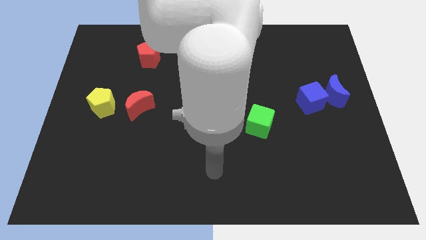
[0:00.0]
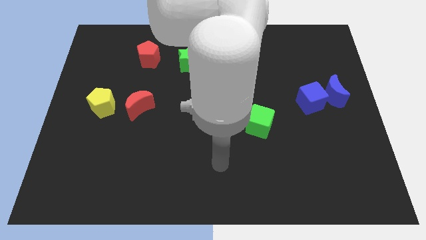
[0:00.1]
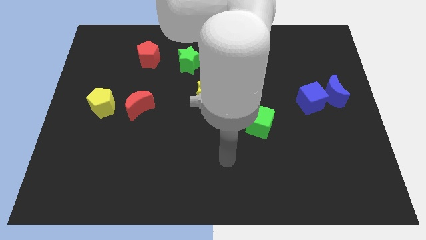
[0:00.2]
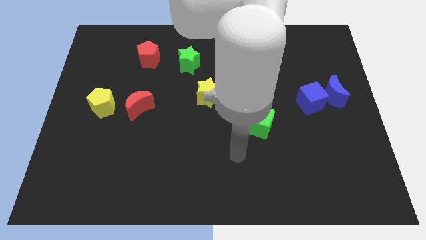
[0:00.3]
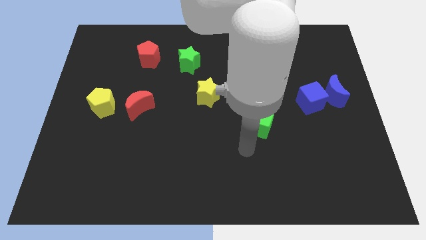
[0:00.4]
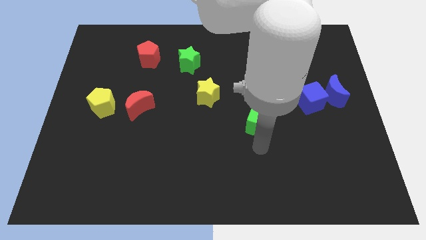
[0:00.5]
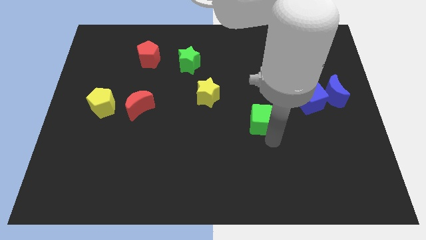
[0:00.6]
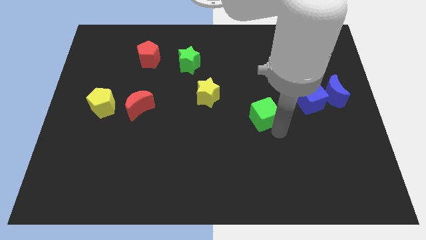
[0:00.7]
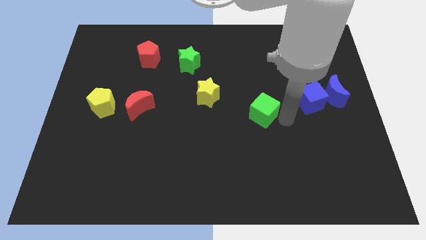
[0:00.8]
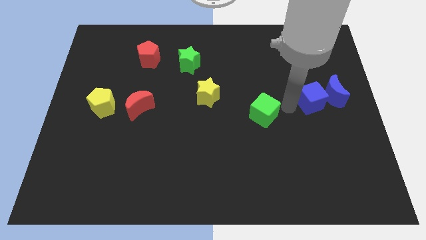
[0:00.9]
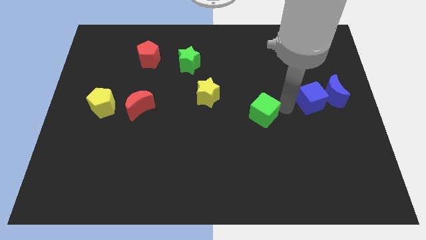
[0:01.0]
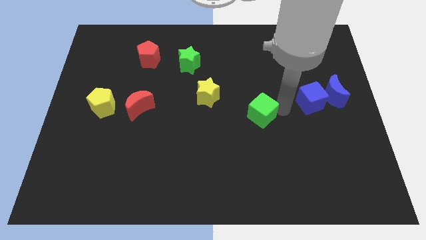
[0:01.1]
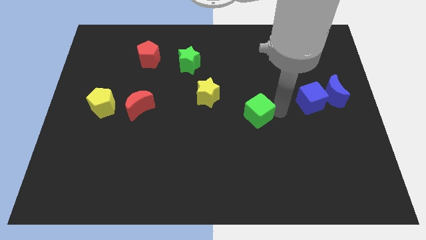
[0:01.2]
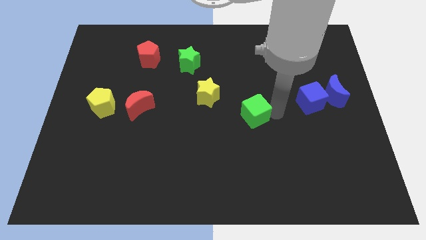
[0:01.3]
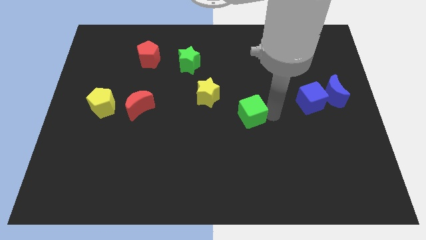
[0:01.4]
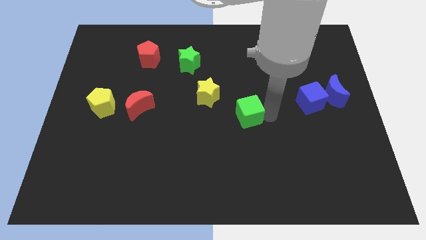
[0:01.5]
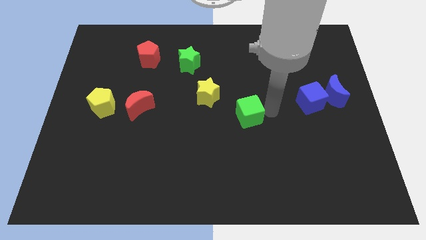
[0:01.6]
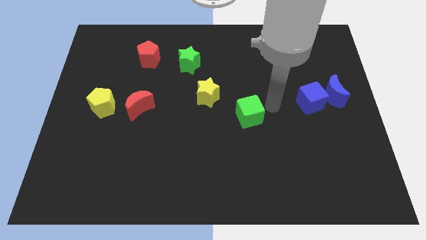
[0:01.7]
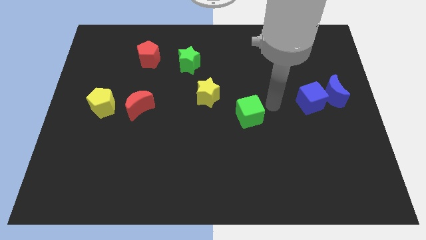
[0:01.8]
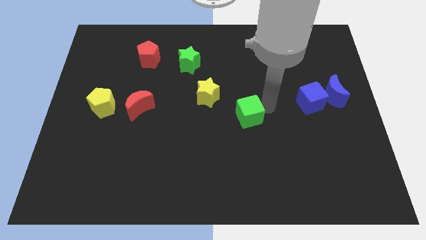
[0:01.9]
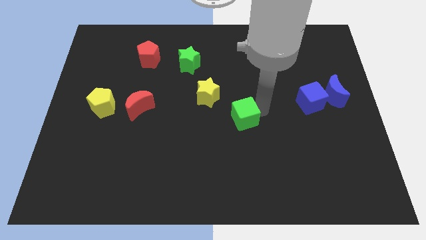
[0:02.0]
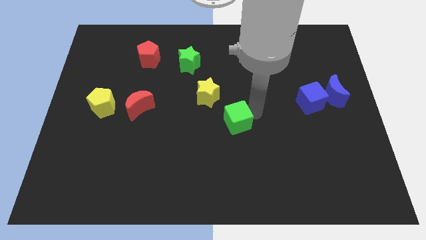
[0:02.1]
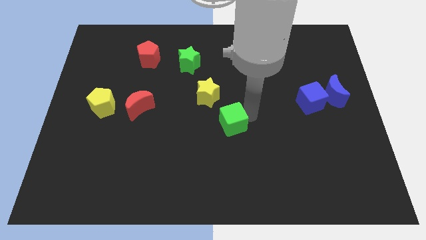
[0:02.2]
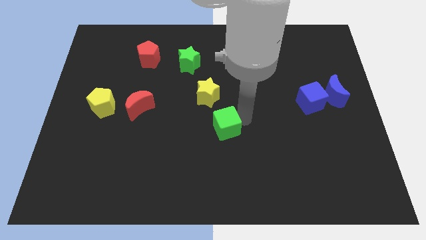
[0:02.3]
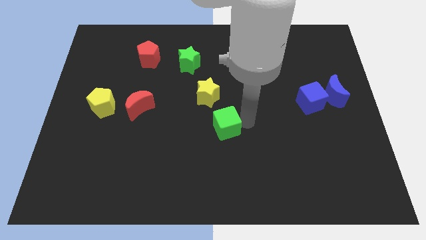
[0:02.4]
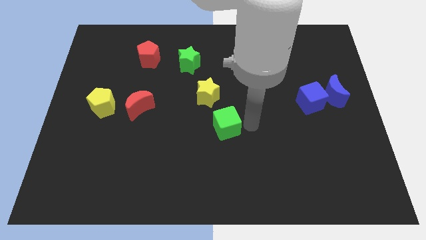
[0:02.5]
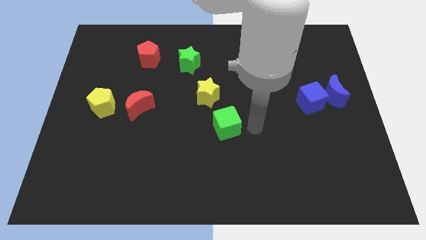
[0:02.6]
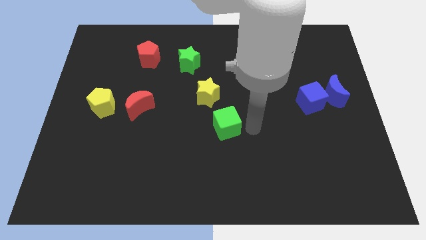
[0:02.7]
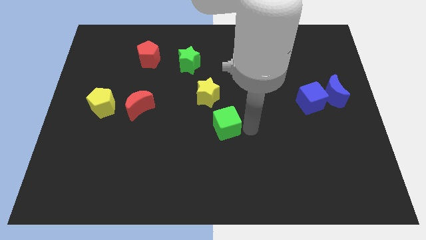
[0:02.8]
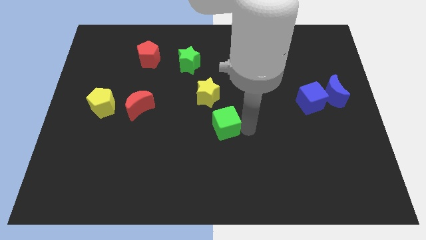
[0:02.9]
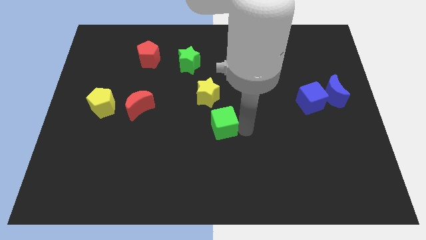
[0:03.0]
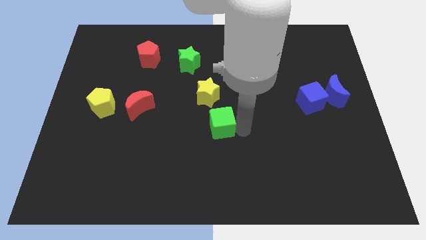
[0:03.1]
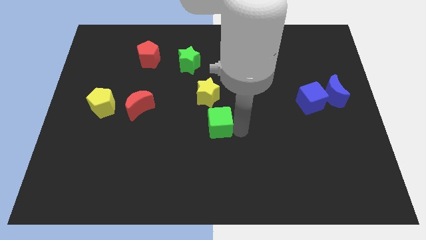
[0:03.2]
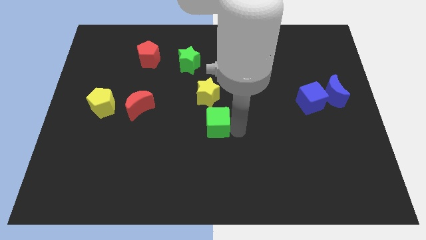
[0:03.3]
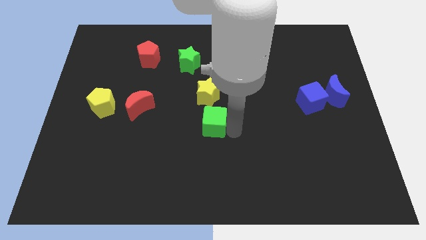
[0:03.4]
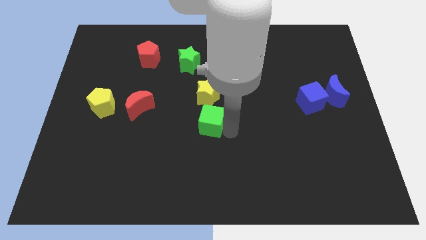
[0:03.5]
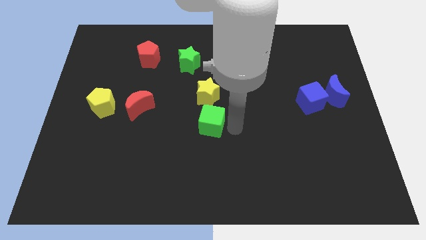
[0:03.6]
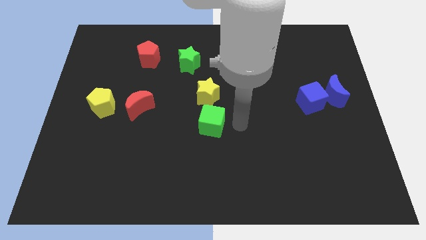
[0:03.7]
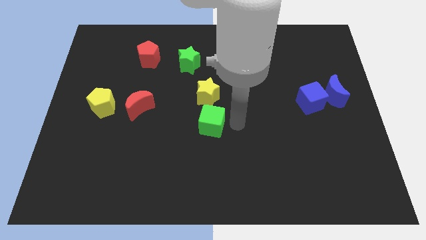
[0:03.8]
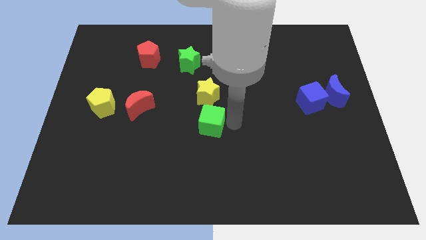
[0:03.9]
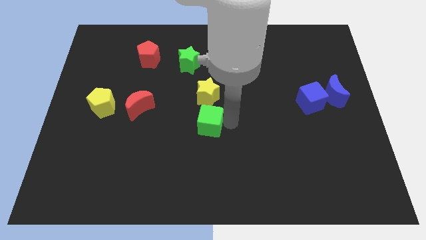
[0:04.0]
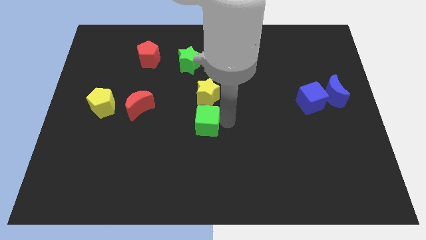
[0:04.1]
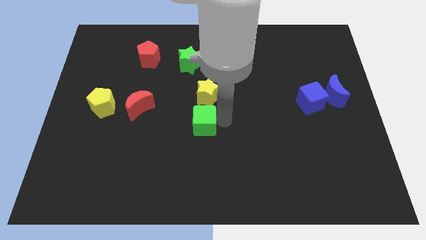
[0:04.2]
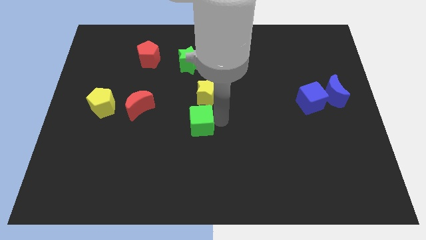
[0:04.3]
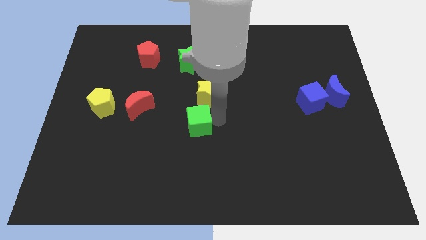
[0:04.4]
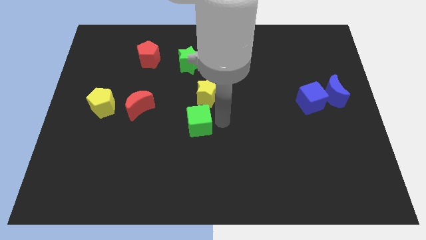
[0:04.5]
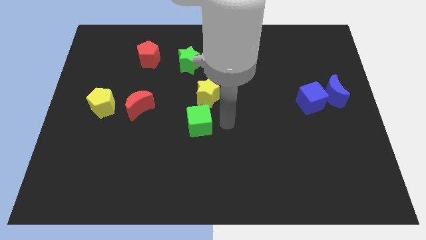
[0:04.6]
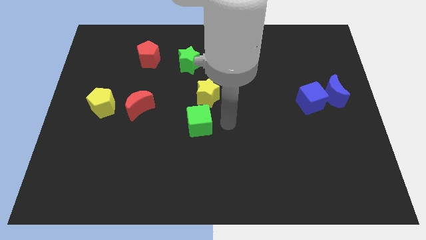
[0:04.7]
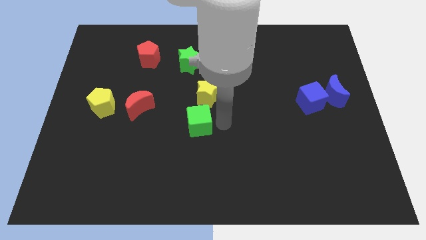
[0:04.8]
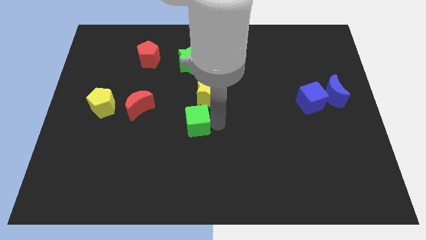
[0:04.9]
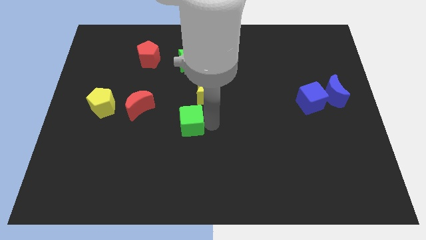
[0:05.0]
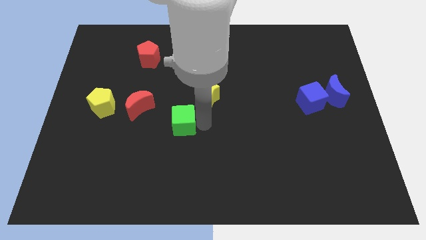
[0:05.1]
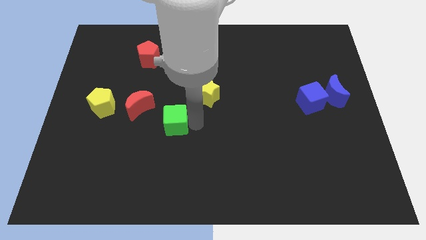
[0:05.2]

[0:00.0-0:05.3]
put the green cube to the bottom right of the red moon

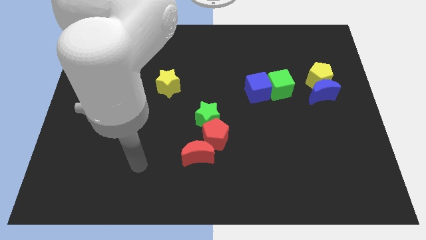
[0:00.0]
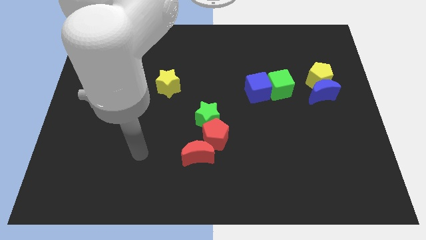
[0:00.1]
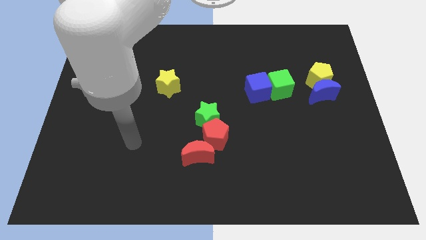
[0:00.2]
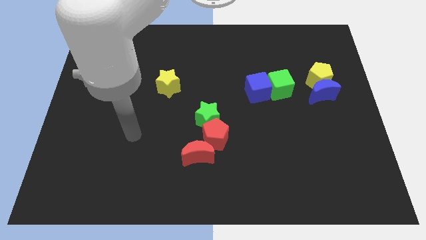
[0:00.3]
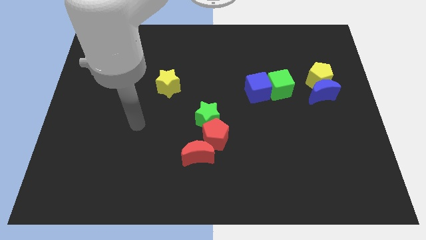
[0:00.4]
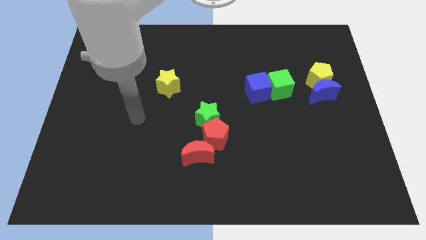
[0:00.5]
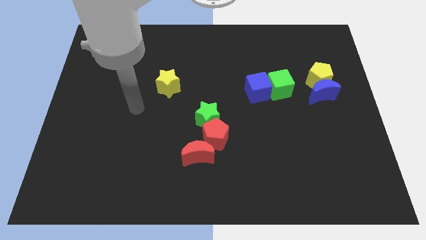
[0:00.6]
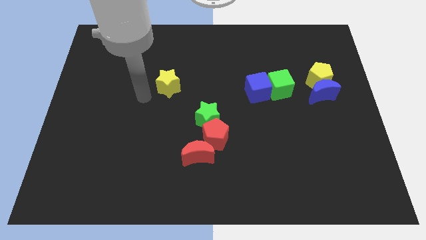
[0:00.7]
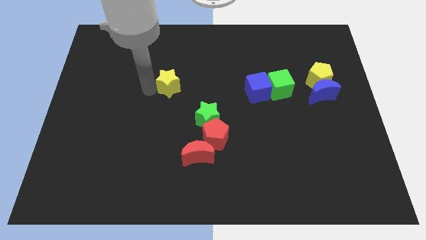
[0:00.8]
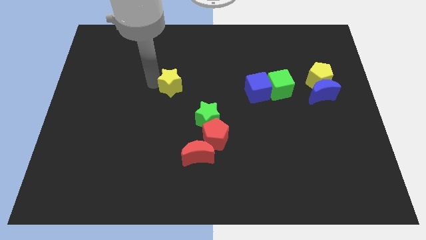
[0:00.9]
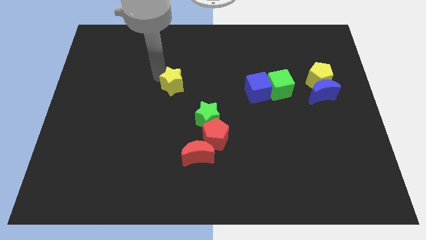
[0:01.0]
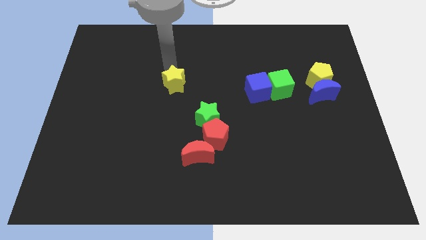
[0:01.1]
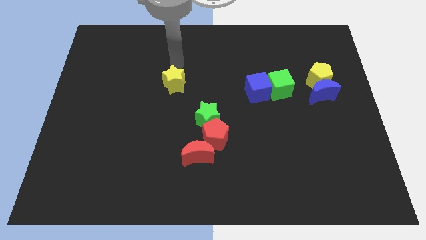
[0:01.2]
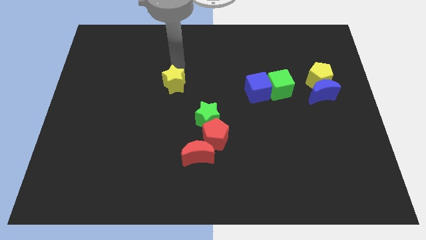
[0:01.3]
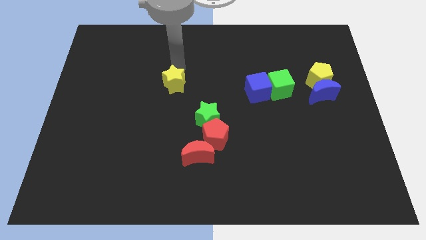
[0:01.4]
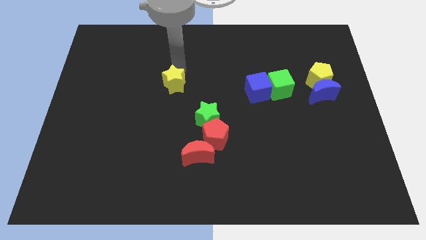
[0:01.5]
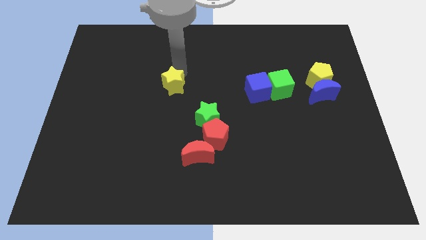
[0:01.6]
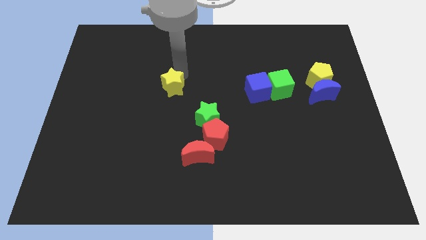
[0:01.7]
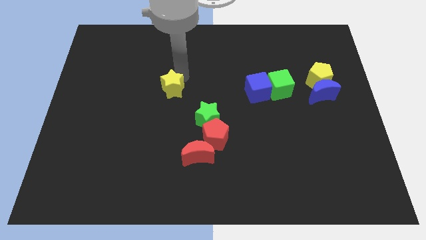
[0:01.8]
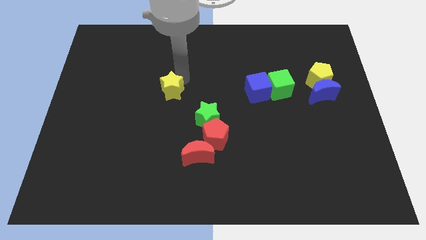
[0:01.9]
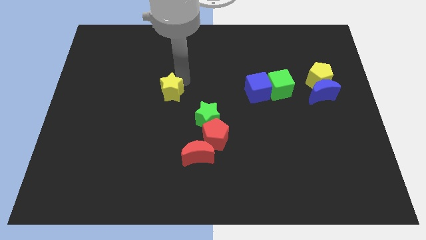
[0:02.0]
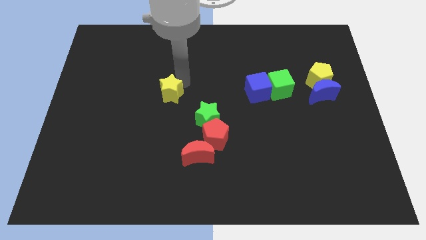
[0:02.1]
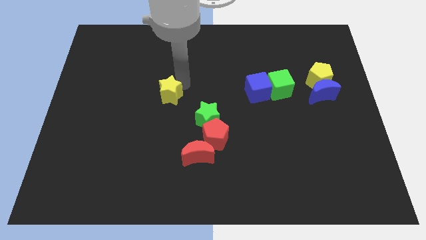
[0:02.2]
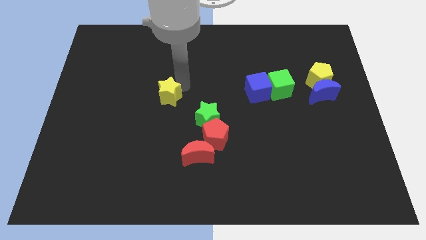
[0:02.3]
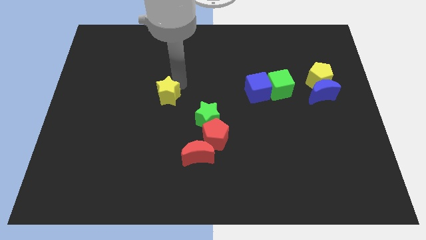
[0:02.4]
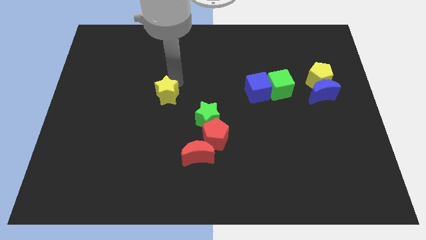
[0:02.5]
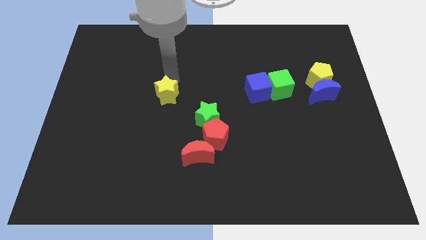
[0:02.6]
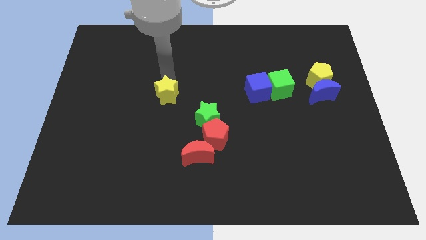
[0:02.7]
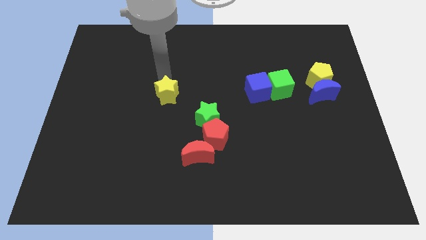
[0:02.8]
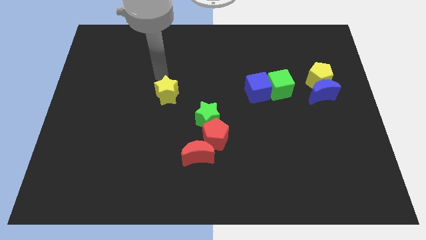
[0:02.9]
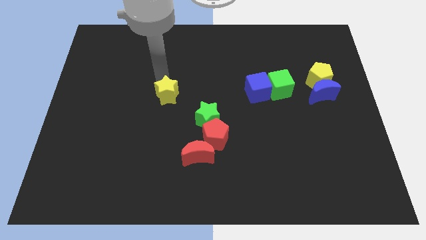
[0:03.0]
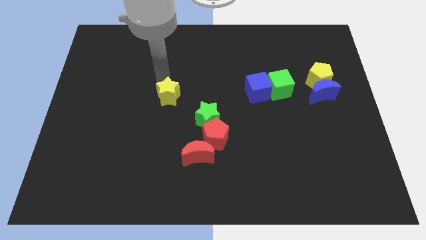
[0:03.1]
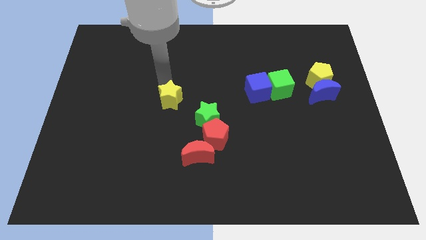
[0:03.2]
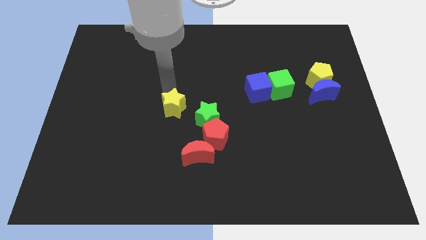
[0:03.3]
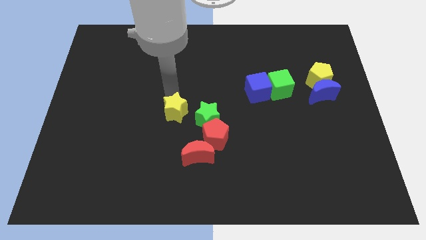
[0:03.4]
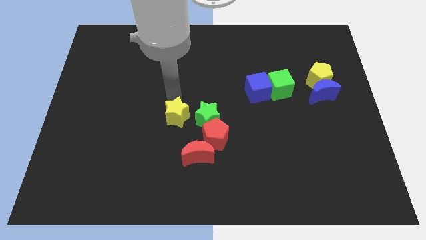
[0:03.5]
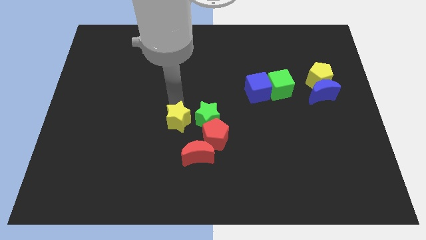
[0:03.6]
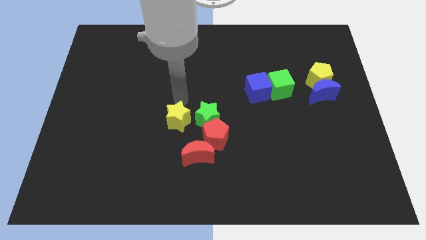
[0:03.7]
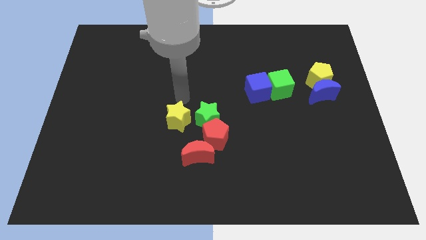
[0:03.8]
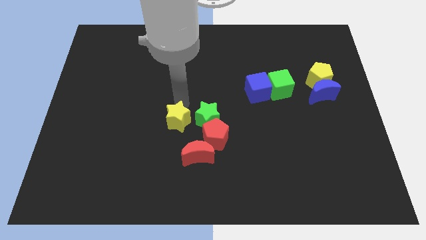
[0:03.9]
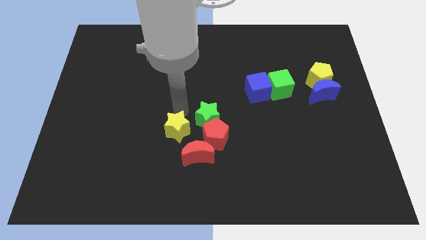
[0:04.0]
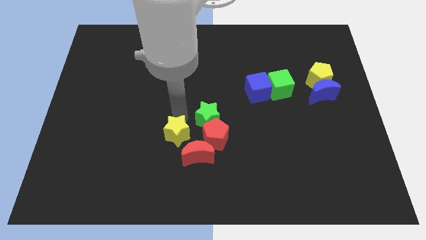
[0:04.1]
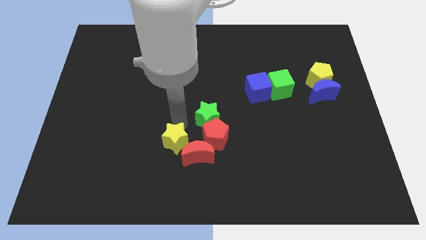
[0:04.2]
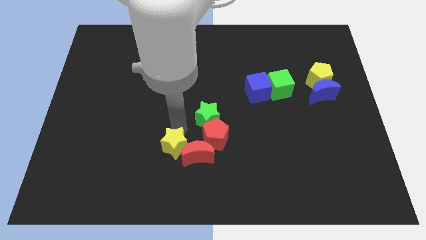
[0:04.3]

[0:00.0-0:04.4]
push the yellow star to the bottom left side of the red pentagon
